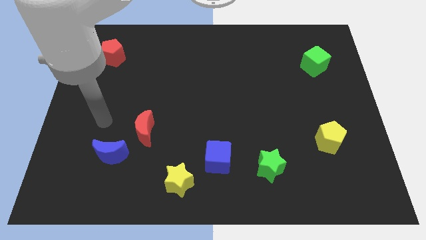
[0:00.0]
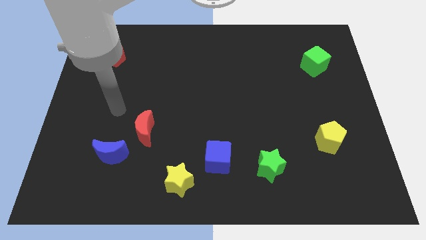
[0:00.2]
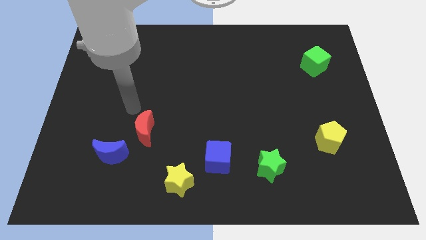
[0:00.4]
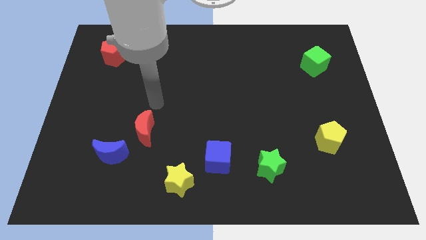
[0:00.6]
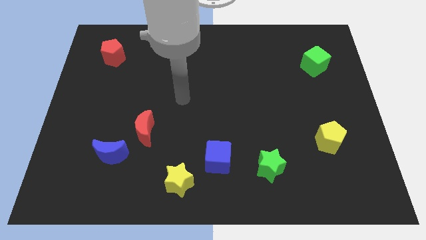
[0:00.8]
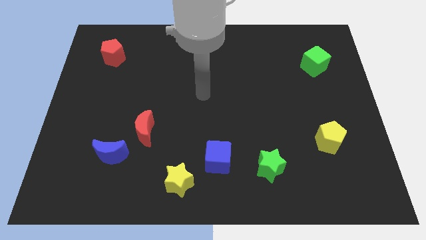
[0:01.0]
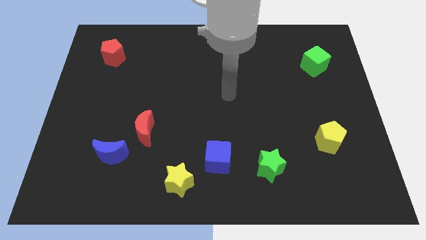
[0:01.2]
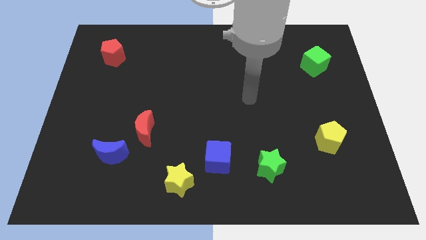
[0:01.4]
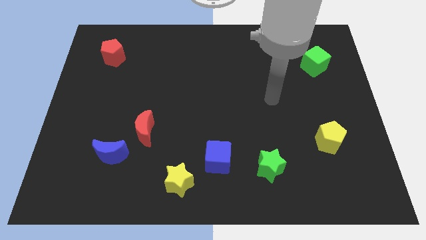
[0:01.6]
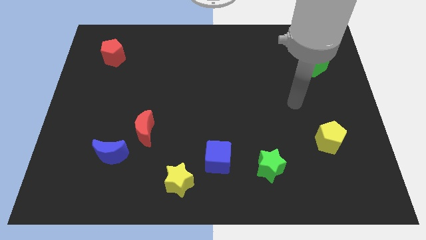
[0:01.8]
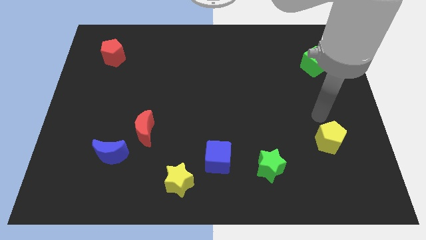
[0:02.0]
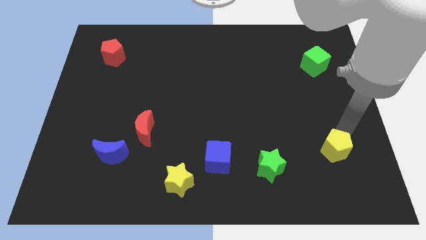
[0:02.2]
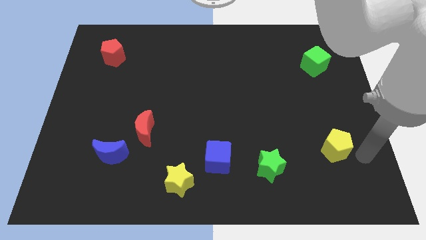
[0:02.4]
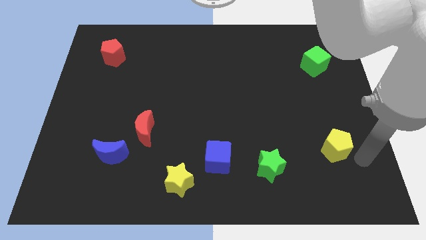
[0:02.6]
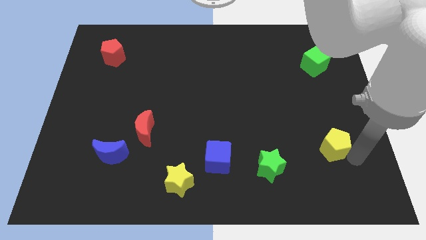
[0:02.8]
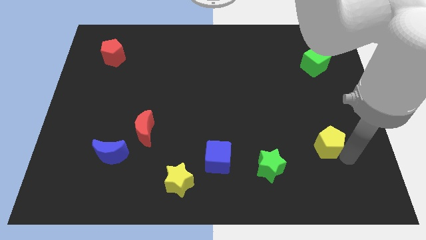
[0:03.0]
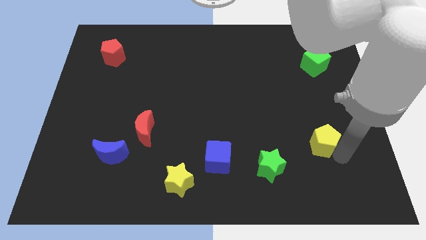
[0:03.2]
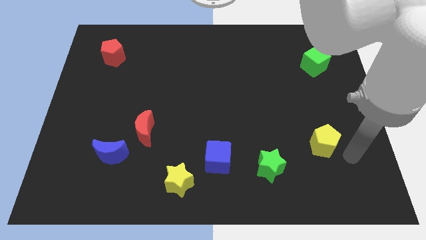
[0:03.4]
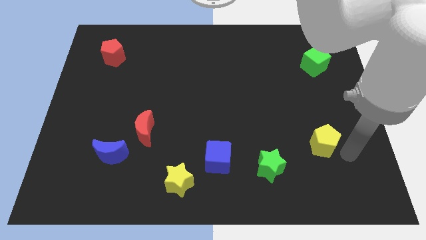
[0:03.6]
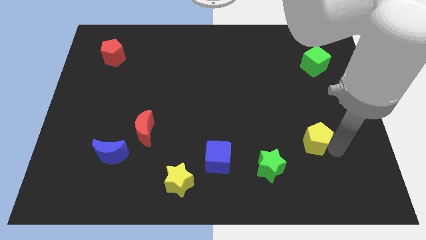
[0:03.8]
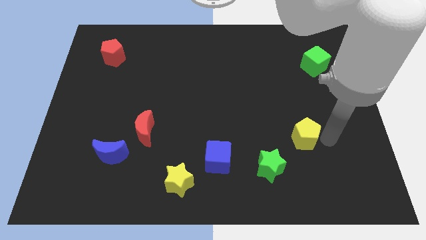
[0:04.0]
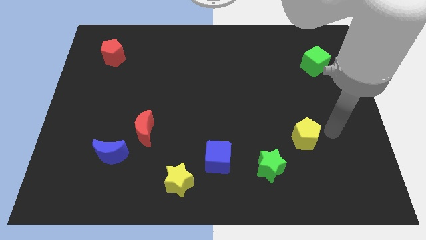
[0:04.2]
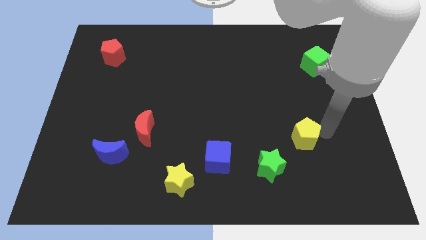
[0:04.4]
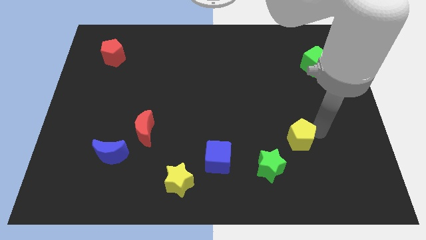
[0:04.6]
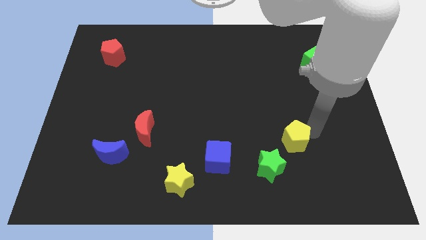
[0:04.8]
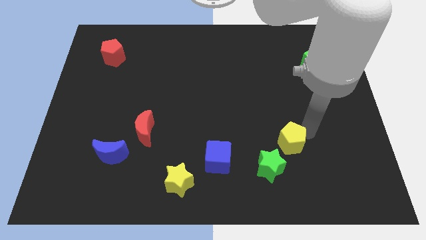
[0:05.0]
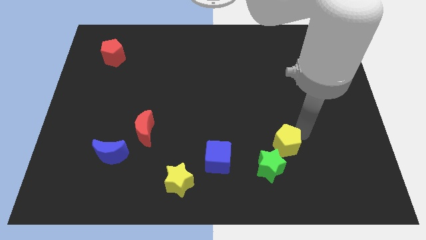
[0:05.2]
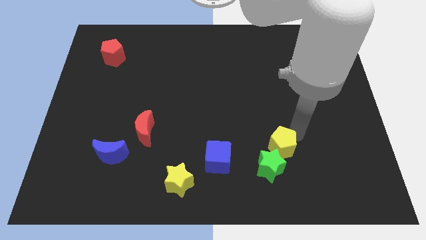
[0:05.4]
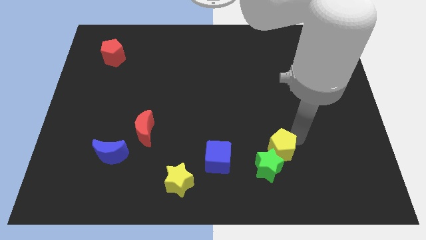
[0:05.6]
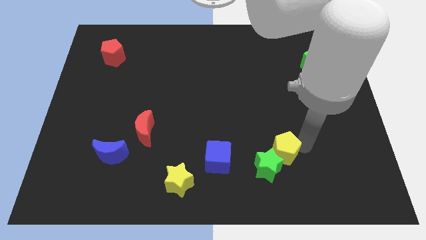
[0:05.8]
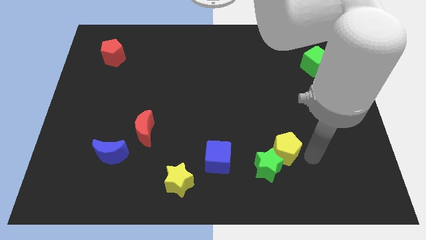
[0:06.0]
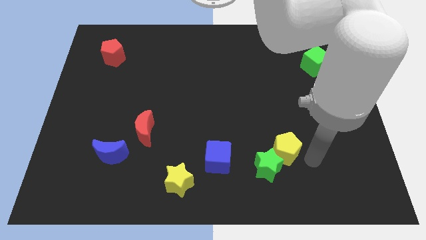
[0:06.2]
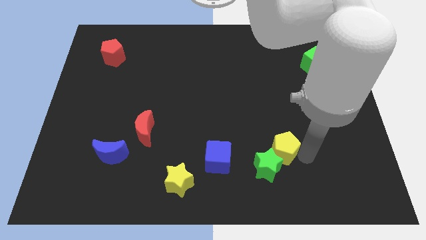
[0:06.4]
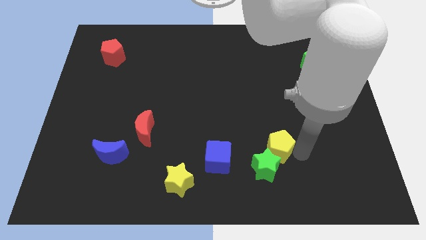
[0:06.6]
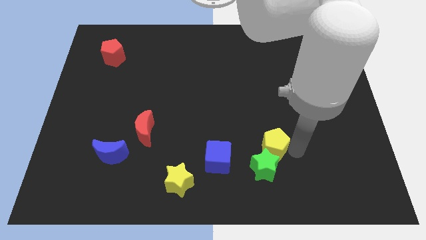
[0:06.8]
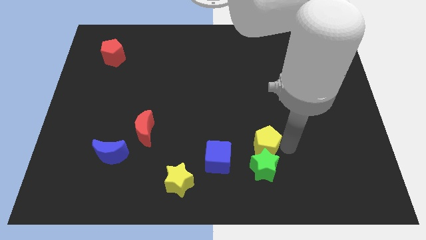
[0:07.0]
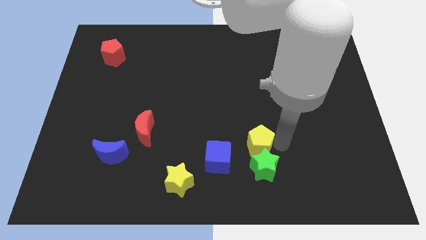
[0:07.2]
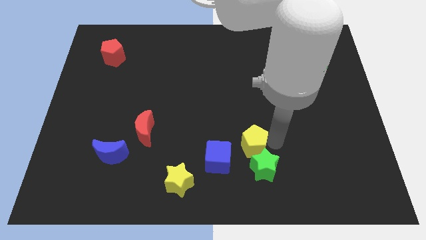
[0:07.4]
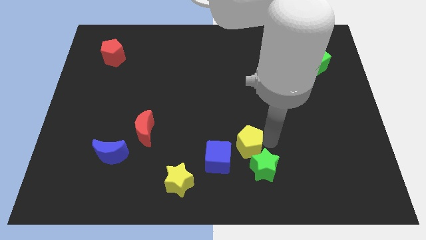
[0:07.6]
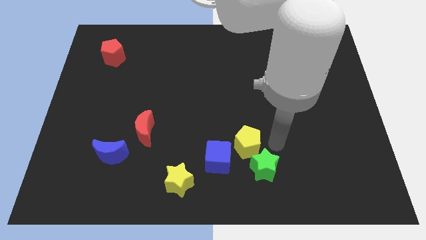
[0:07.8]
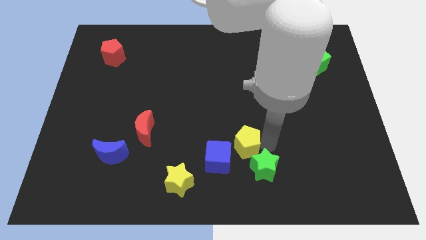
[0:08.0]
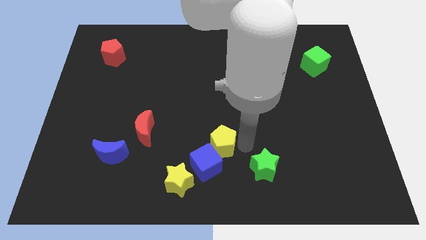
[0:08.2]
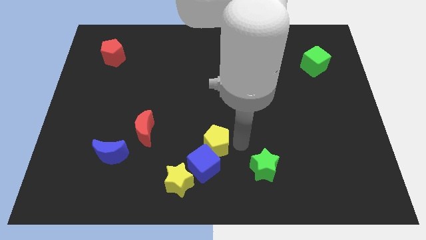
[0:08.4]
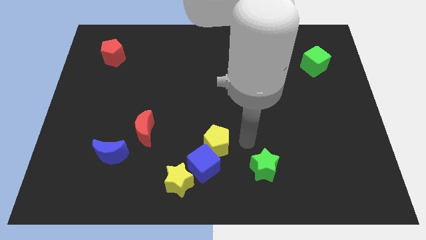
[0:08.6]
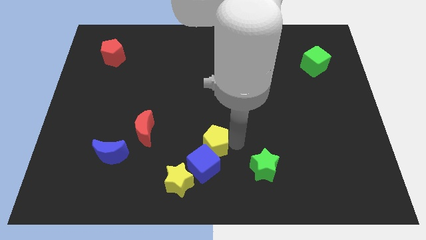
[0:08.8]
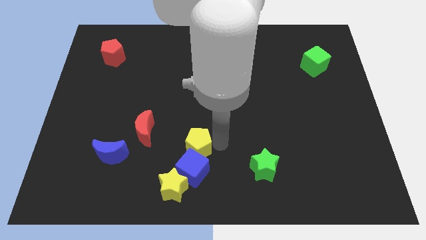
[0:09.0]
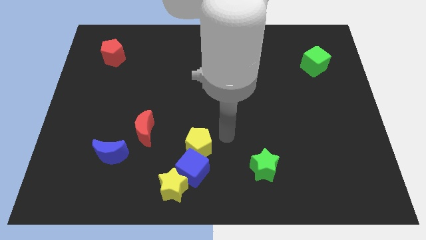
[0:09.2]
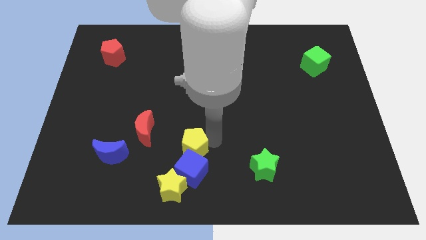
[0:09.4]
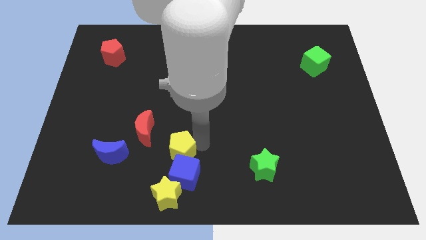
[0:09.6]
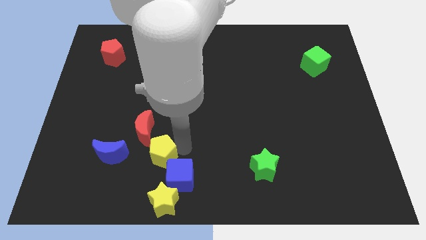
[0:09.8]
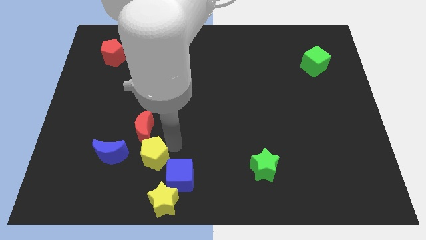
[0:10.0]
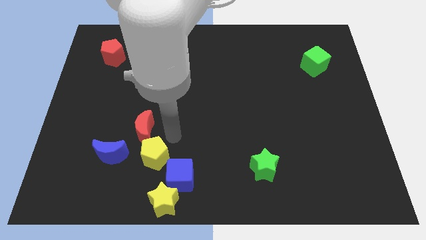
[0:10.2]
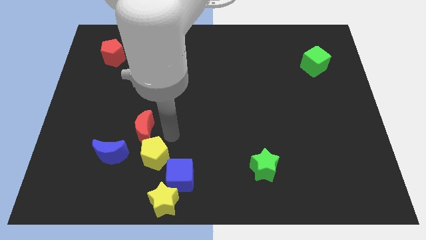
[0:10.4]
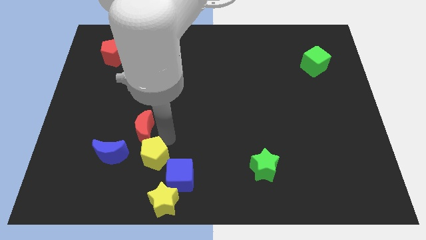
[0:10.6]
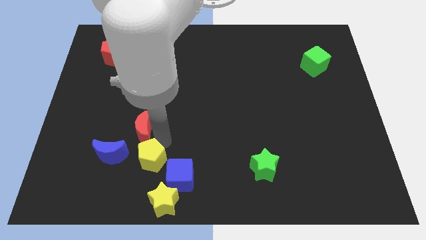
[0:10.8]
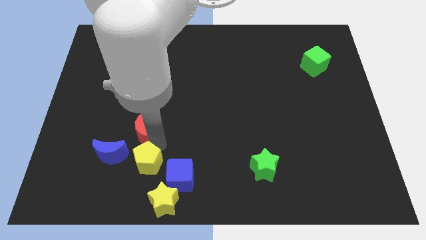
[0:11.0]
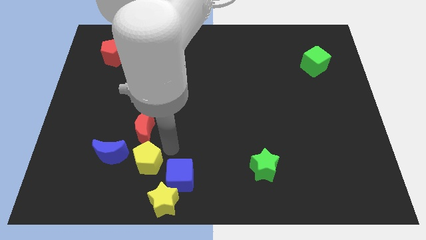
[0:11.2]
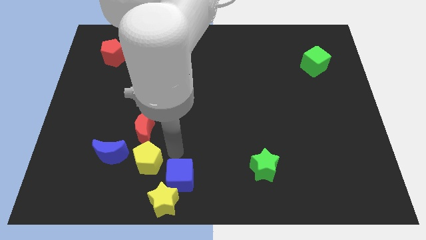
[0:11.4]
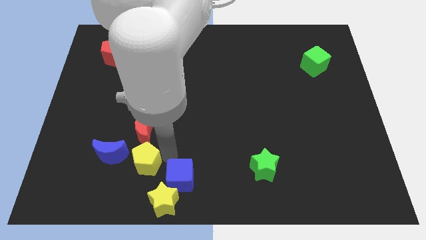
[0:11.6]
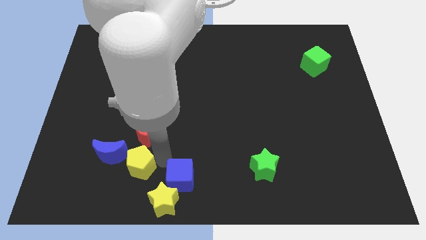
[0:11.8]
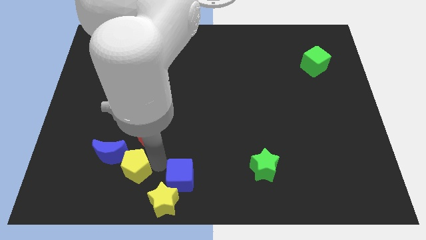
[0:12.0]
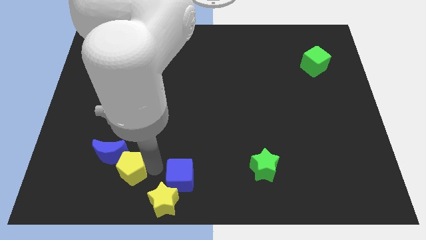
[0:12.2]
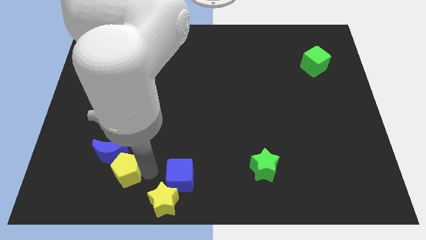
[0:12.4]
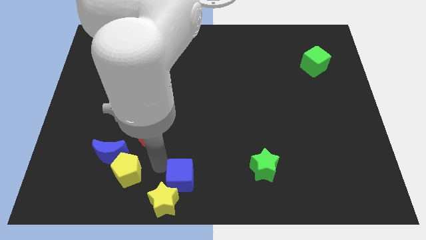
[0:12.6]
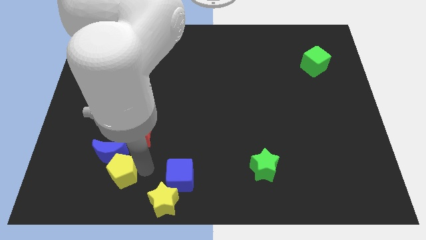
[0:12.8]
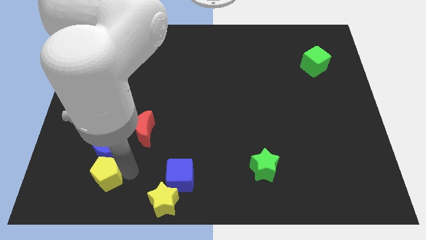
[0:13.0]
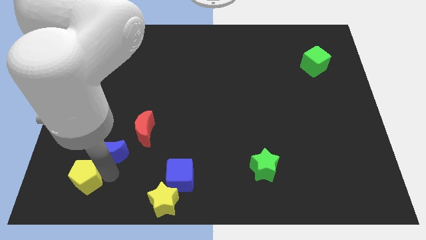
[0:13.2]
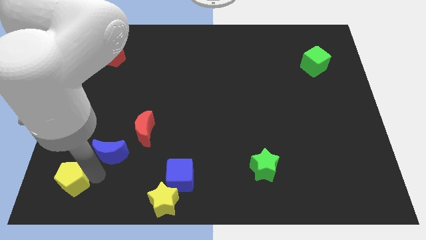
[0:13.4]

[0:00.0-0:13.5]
push the yellow pentagon to the bottom left corner

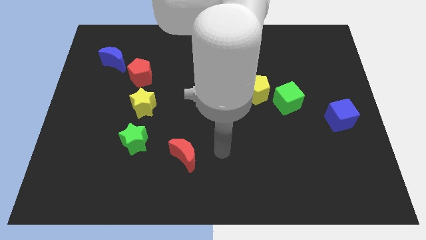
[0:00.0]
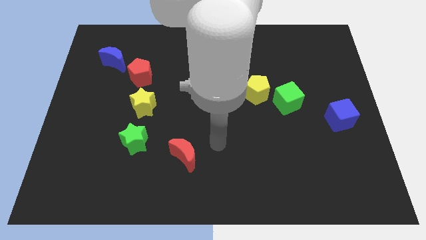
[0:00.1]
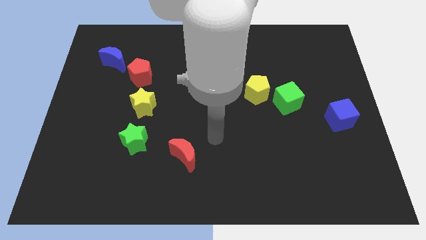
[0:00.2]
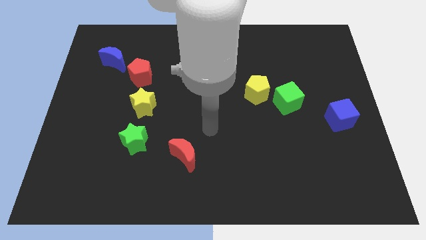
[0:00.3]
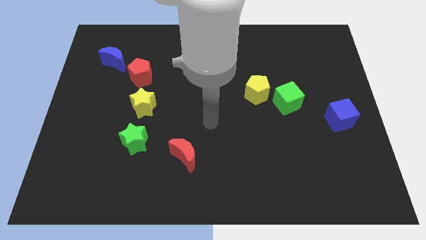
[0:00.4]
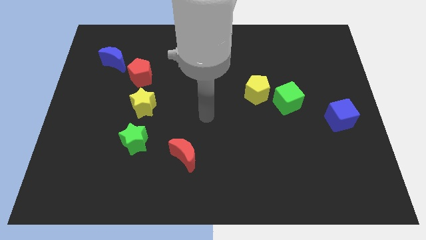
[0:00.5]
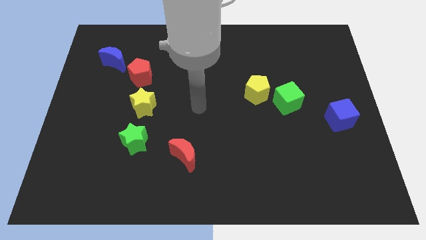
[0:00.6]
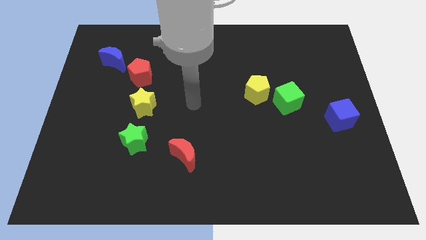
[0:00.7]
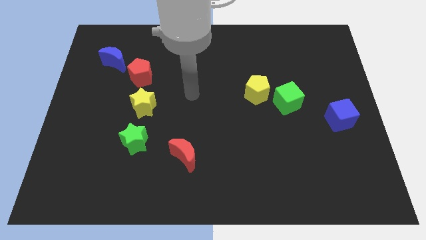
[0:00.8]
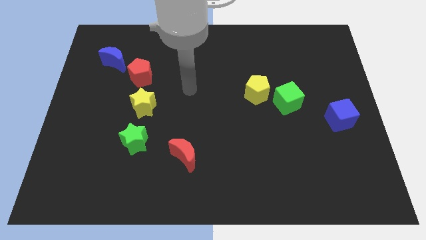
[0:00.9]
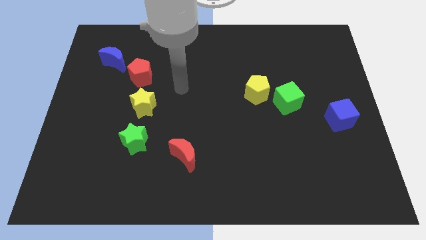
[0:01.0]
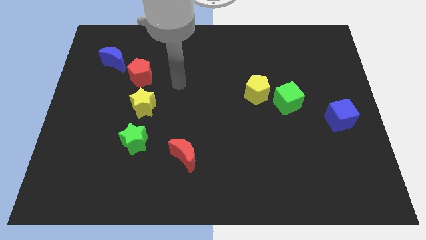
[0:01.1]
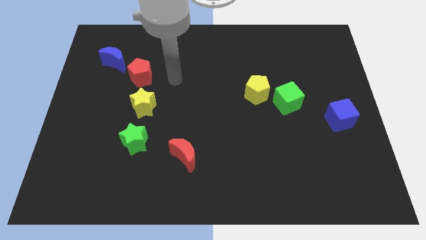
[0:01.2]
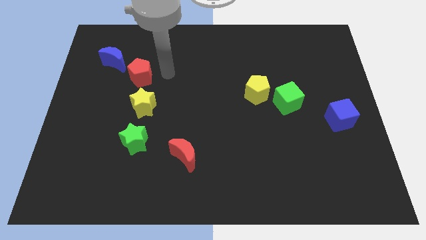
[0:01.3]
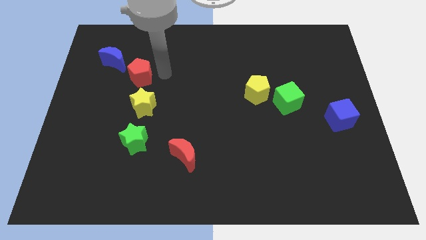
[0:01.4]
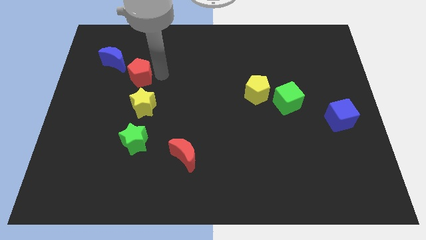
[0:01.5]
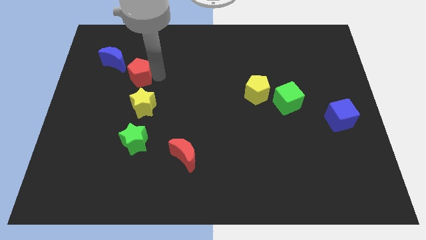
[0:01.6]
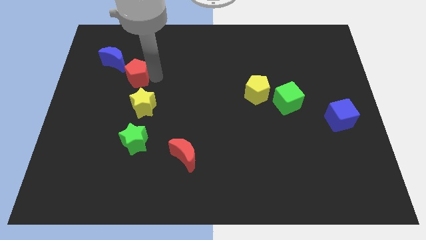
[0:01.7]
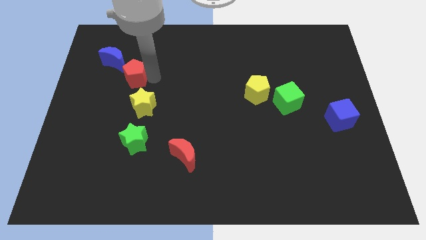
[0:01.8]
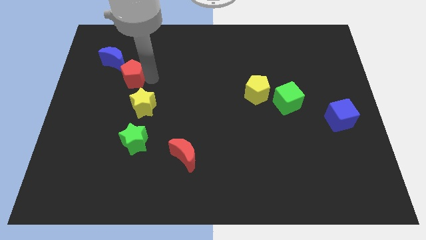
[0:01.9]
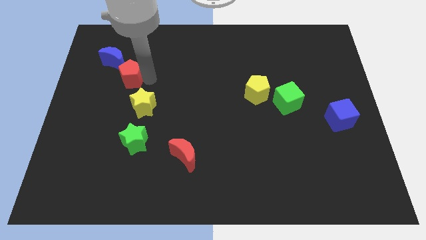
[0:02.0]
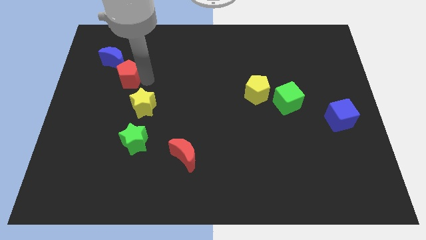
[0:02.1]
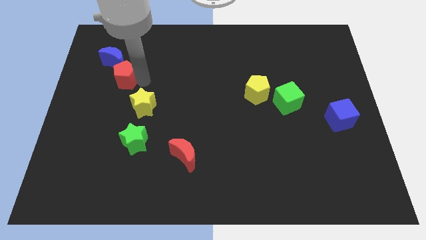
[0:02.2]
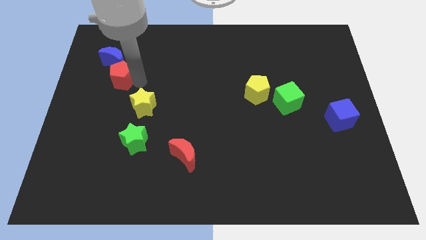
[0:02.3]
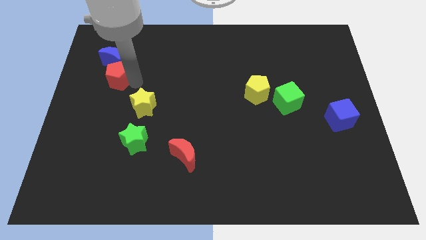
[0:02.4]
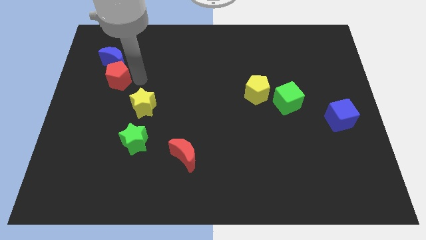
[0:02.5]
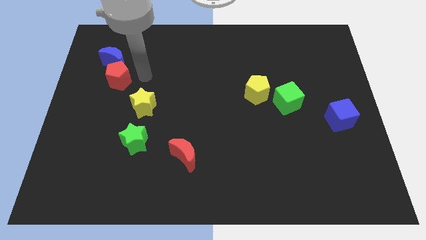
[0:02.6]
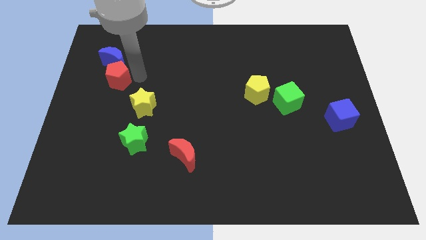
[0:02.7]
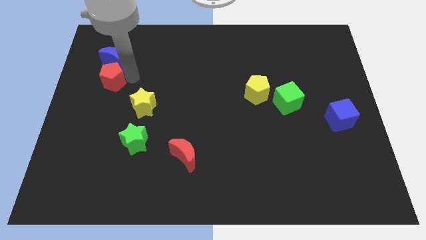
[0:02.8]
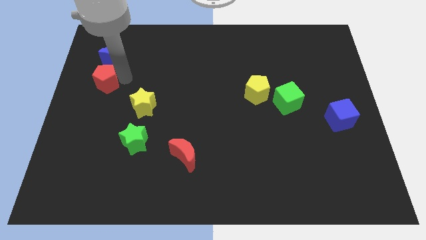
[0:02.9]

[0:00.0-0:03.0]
push the red pentagon to the left side
